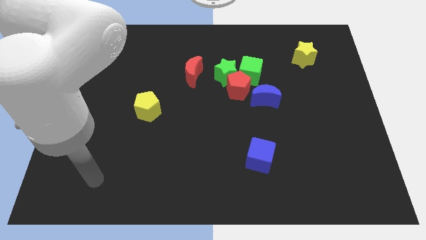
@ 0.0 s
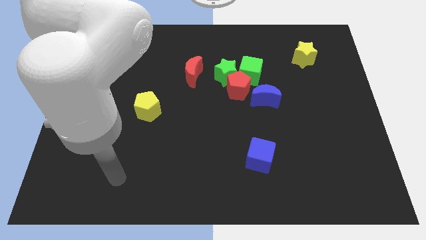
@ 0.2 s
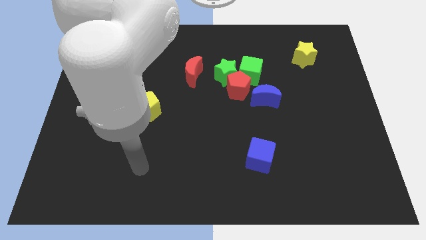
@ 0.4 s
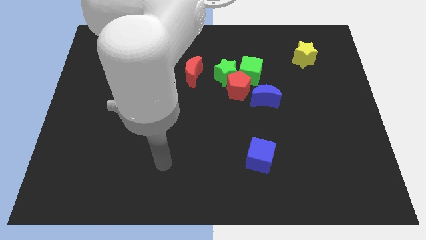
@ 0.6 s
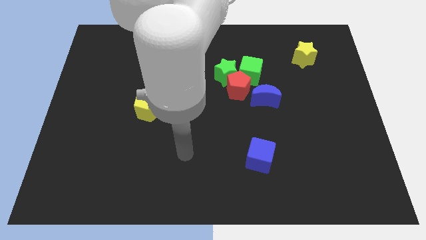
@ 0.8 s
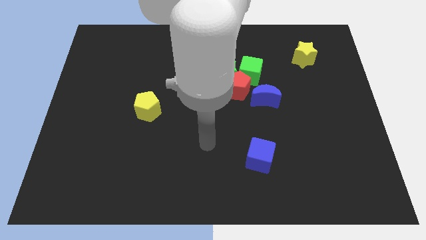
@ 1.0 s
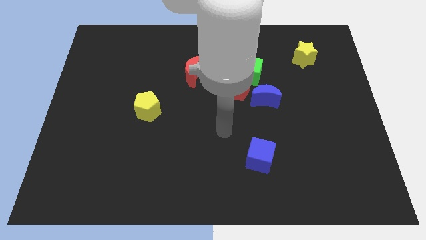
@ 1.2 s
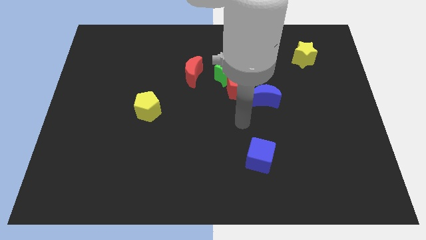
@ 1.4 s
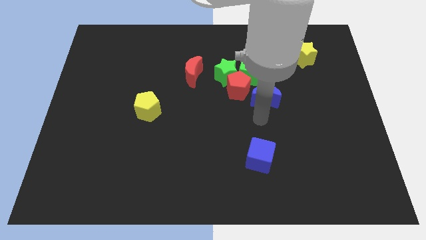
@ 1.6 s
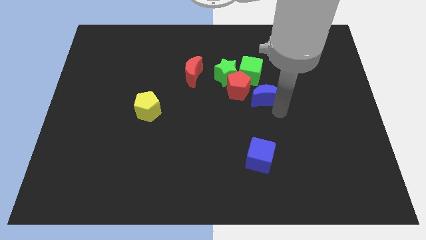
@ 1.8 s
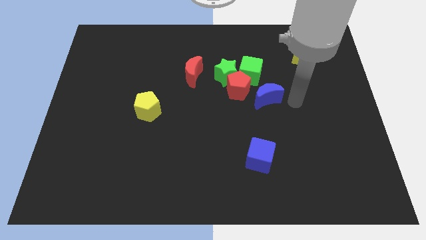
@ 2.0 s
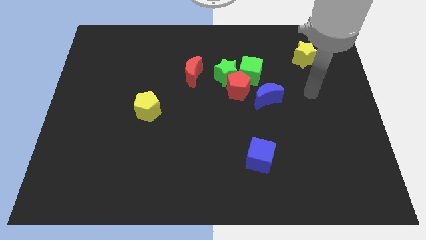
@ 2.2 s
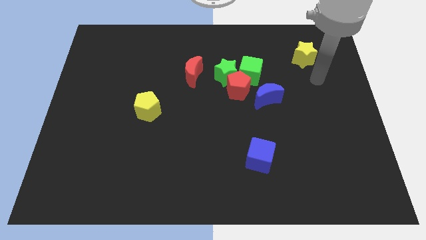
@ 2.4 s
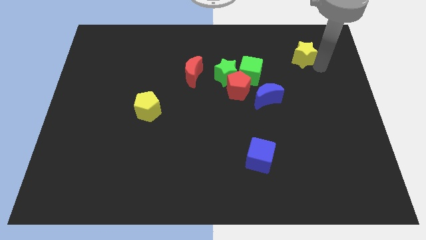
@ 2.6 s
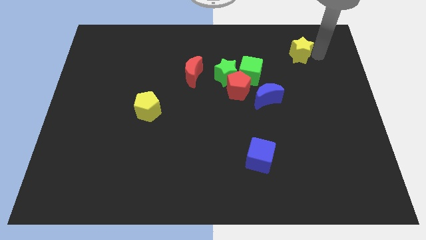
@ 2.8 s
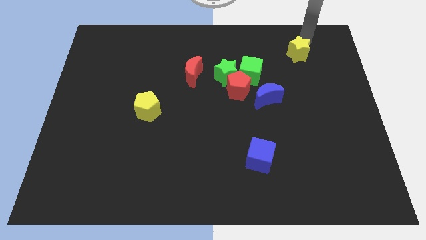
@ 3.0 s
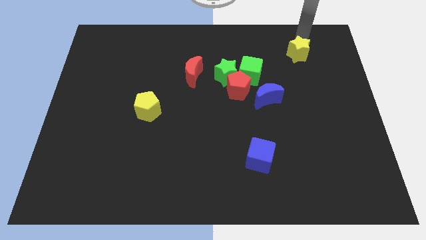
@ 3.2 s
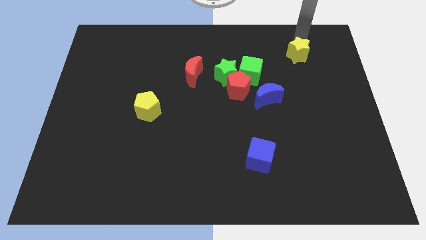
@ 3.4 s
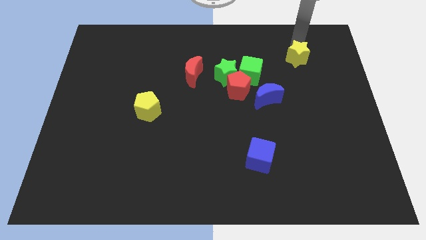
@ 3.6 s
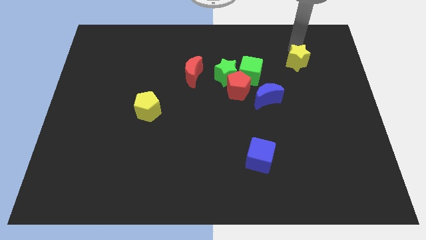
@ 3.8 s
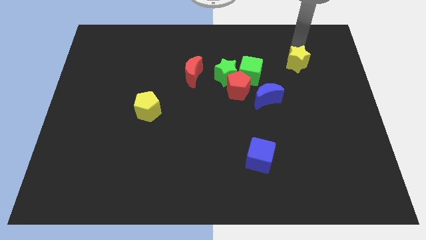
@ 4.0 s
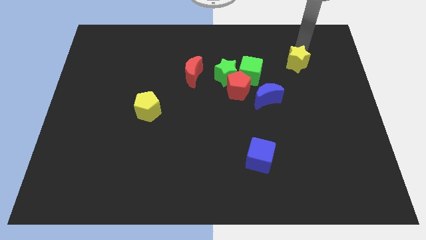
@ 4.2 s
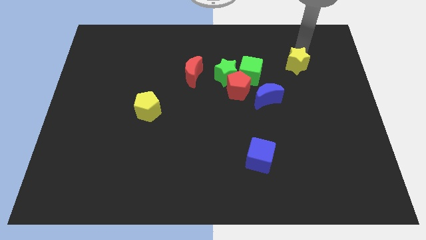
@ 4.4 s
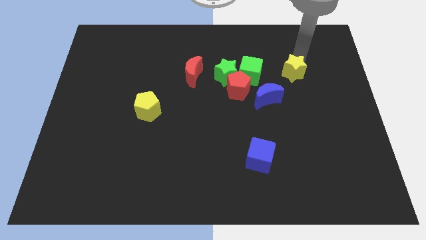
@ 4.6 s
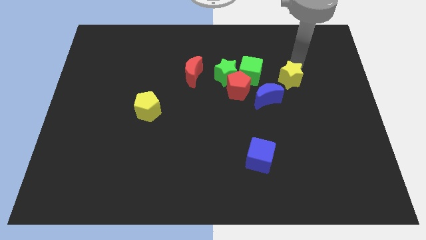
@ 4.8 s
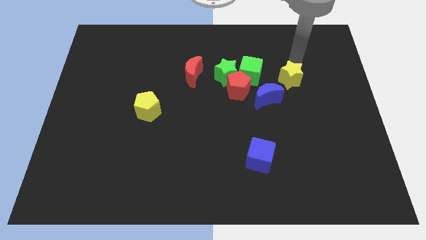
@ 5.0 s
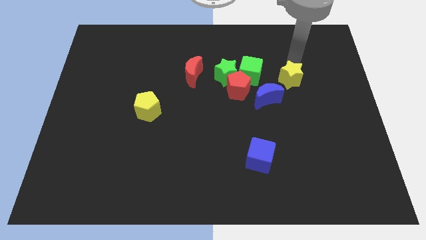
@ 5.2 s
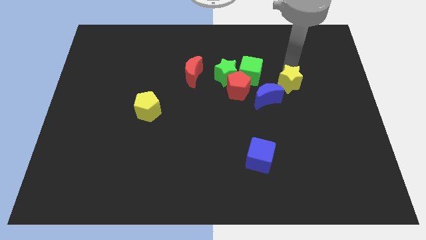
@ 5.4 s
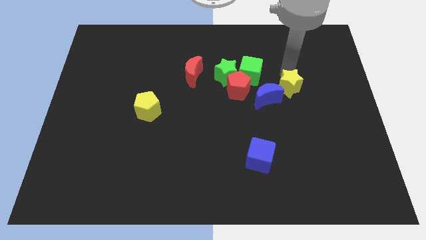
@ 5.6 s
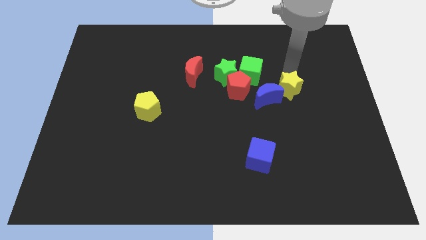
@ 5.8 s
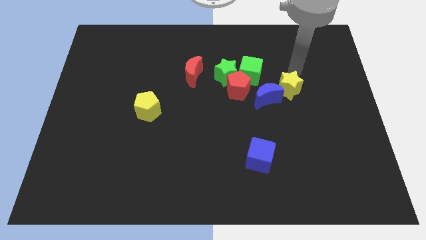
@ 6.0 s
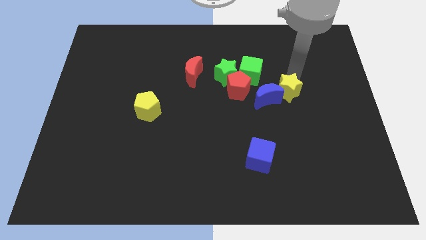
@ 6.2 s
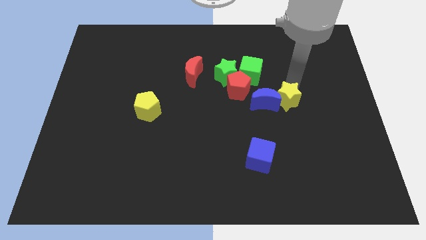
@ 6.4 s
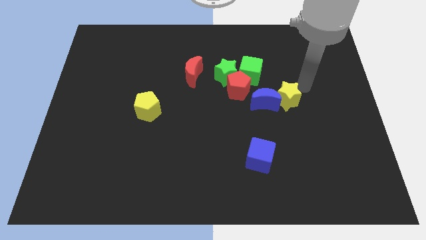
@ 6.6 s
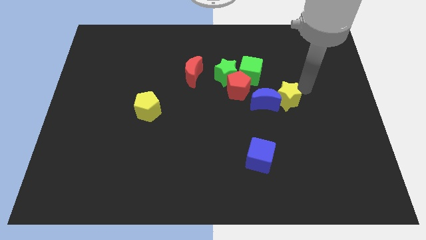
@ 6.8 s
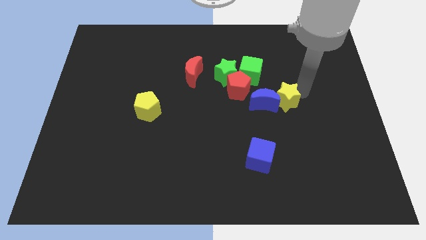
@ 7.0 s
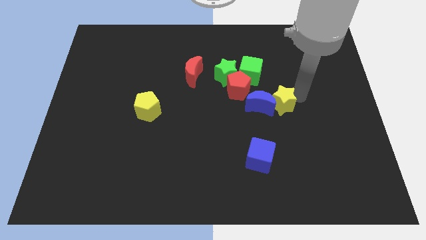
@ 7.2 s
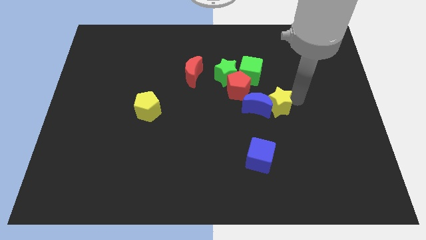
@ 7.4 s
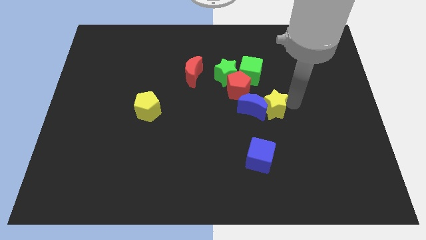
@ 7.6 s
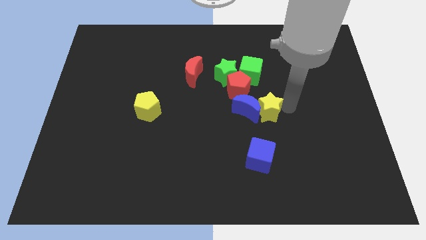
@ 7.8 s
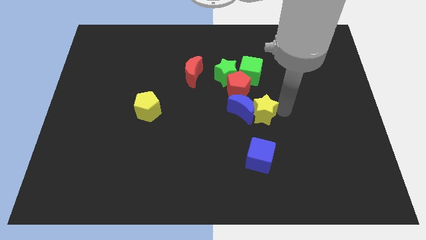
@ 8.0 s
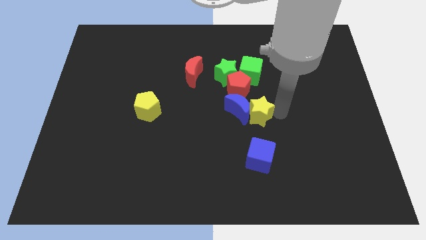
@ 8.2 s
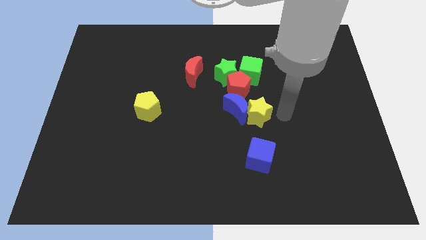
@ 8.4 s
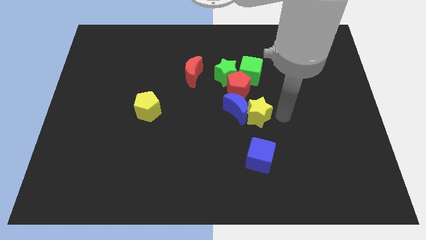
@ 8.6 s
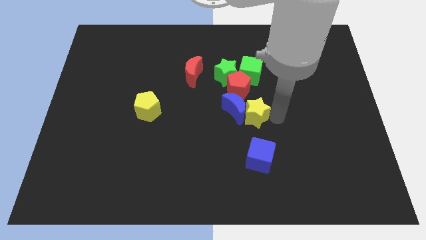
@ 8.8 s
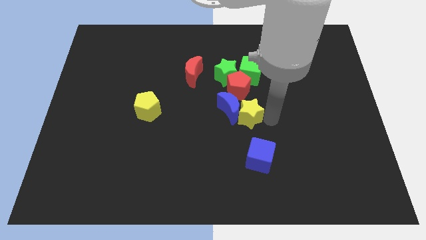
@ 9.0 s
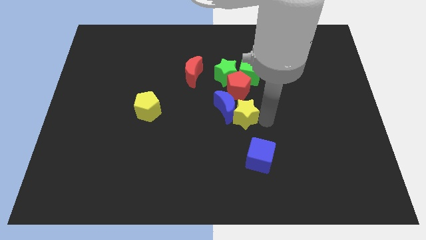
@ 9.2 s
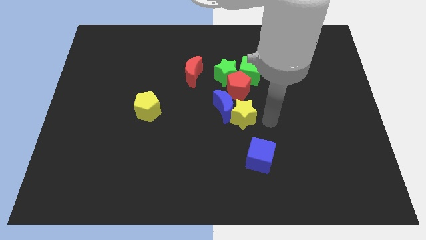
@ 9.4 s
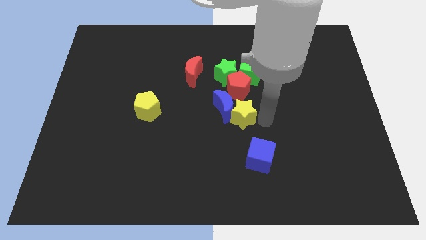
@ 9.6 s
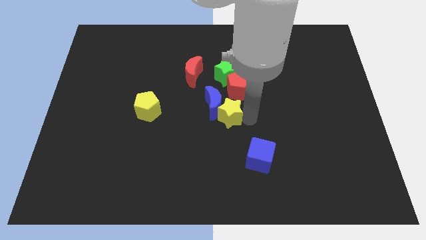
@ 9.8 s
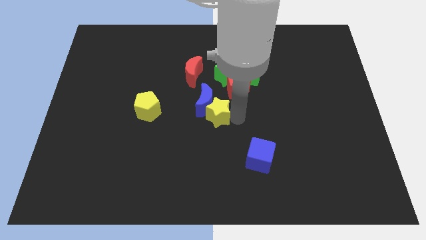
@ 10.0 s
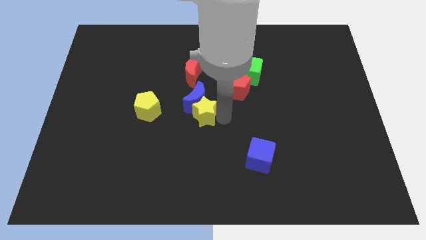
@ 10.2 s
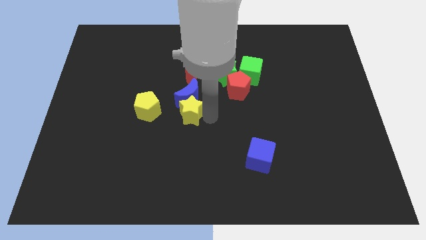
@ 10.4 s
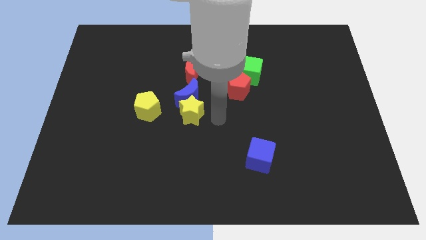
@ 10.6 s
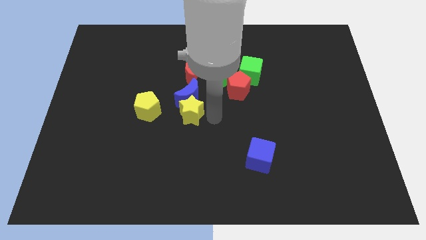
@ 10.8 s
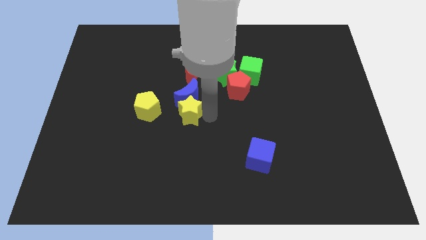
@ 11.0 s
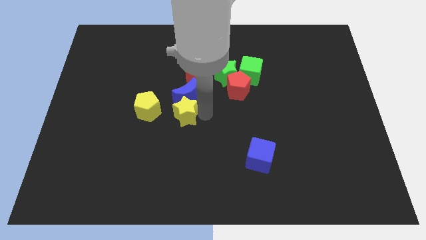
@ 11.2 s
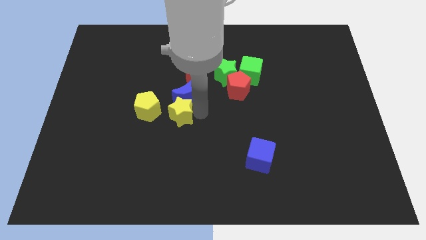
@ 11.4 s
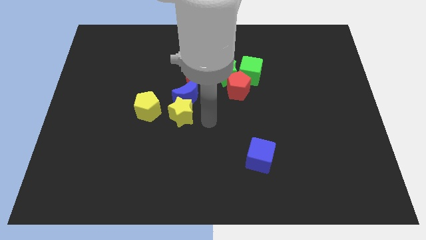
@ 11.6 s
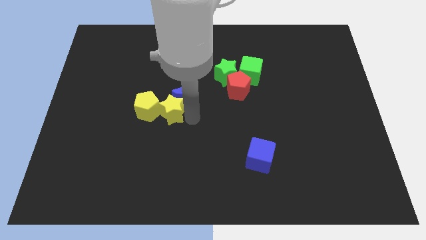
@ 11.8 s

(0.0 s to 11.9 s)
slide the yellow star towards the yellow pentagon

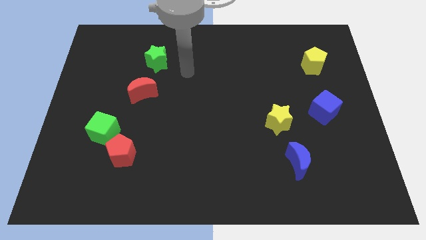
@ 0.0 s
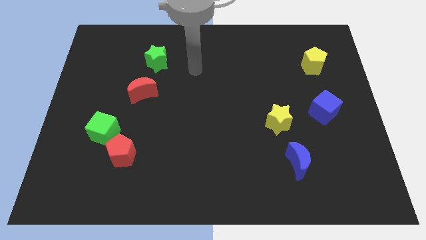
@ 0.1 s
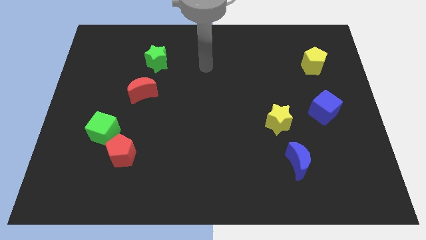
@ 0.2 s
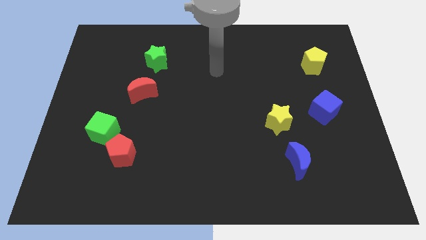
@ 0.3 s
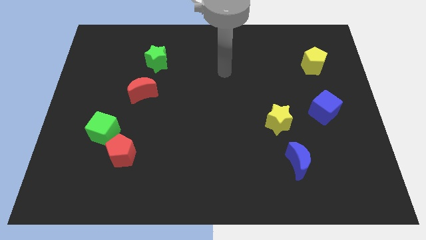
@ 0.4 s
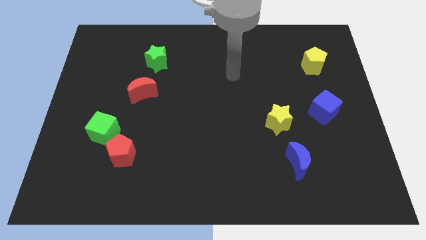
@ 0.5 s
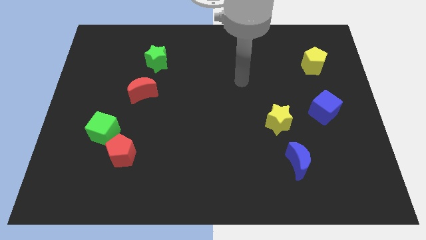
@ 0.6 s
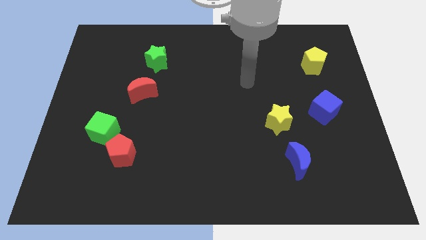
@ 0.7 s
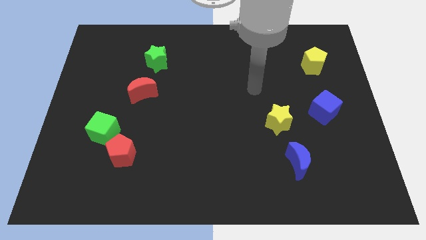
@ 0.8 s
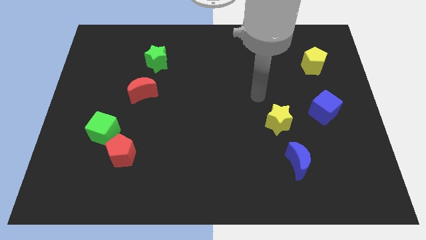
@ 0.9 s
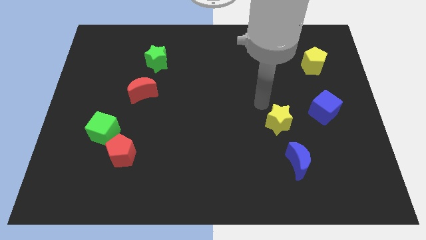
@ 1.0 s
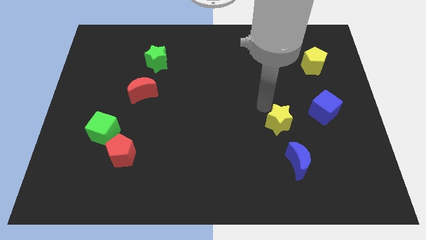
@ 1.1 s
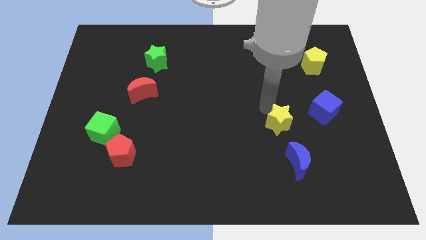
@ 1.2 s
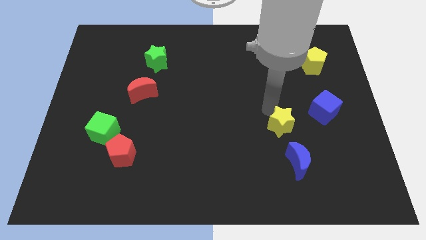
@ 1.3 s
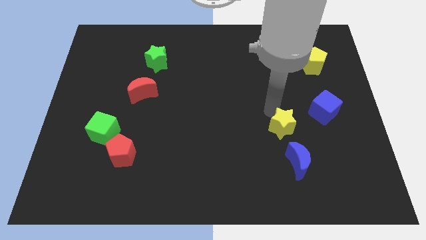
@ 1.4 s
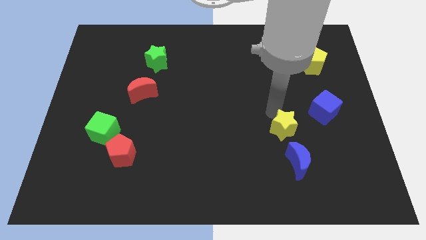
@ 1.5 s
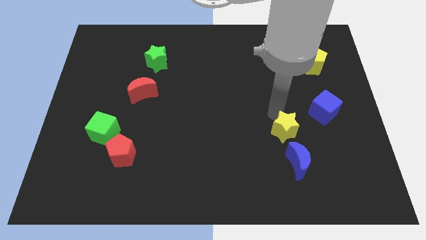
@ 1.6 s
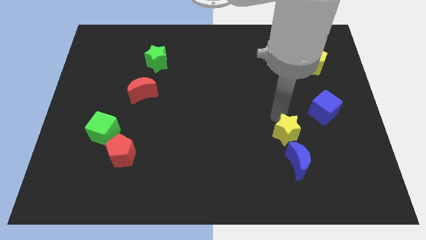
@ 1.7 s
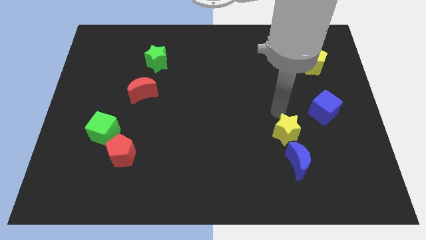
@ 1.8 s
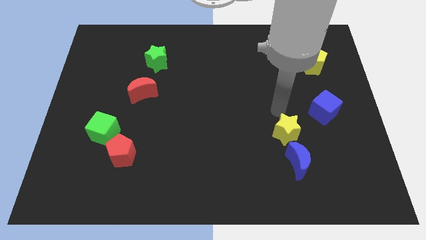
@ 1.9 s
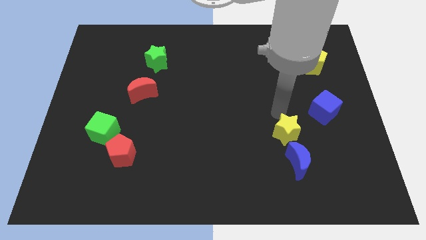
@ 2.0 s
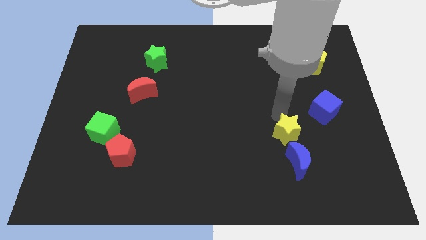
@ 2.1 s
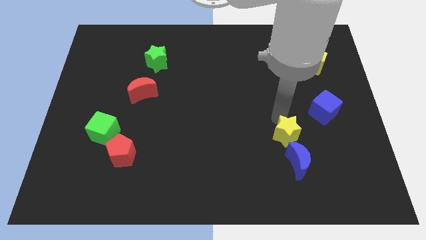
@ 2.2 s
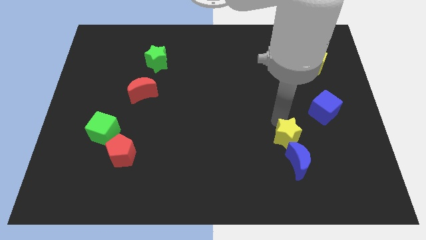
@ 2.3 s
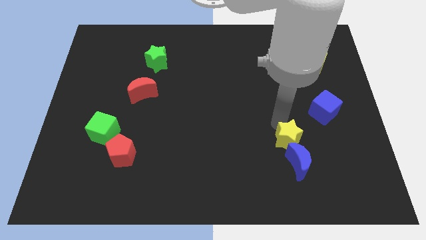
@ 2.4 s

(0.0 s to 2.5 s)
slide the yellow star to the blue moon
